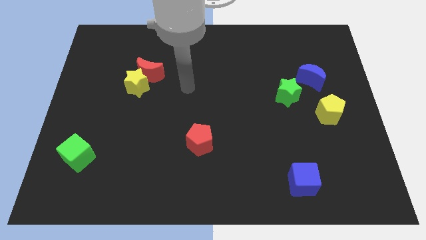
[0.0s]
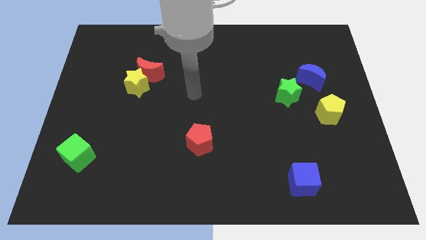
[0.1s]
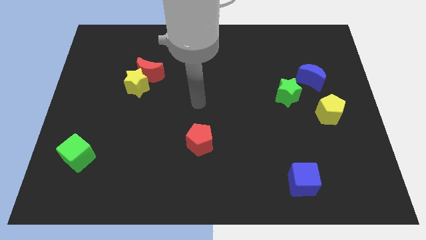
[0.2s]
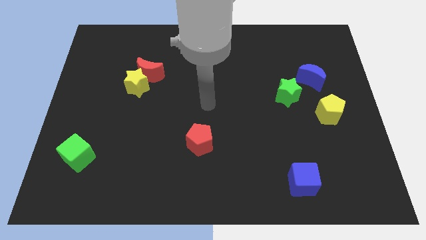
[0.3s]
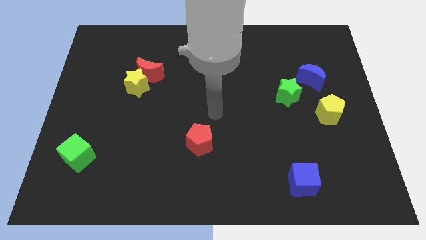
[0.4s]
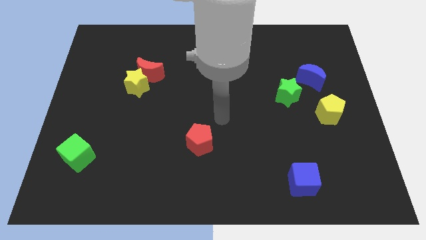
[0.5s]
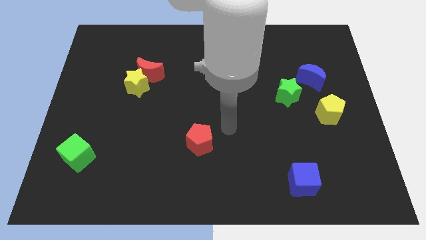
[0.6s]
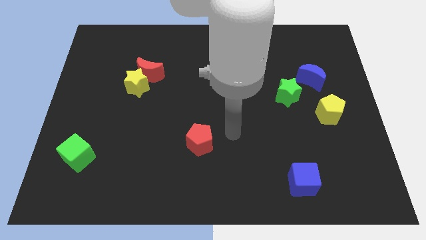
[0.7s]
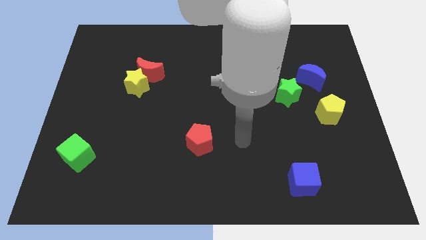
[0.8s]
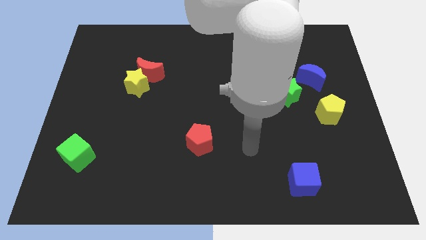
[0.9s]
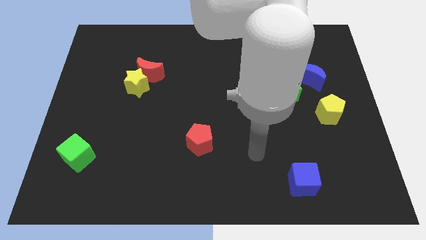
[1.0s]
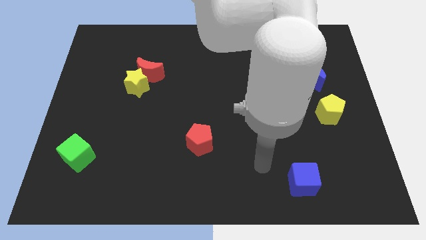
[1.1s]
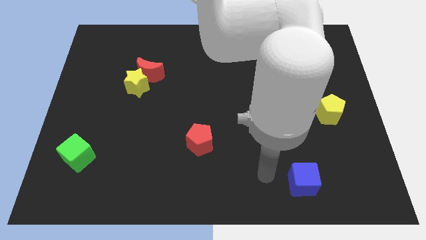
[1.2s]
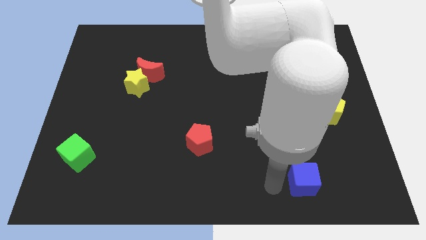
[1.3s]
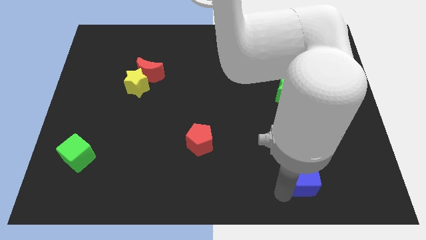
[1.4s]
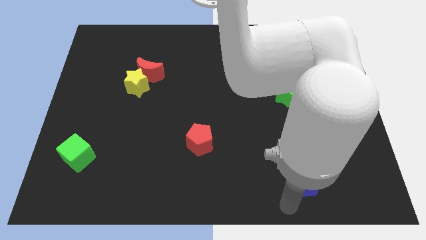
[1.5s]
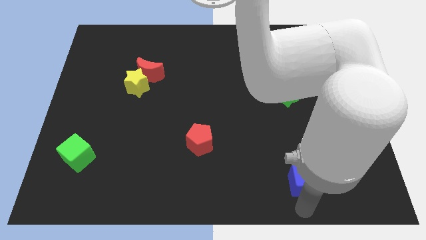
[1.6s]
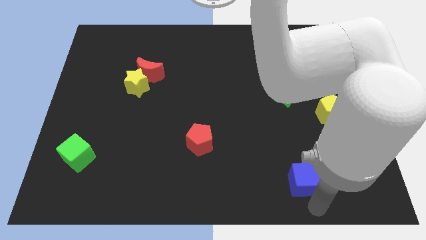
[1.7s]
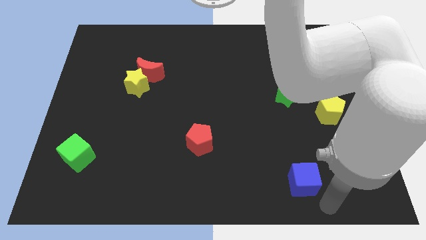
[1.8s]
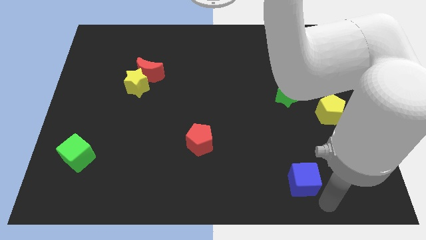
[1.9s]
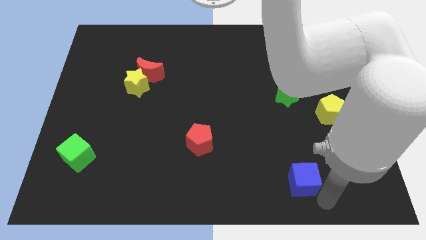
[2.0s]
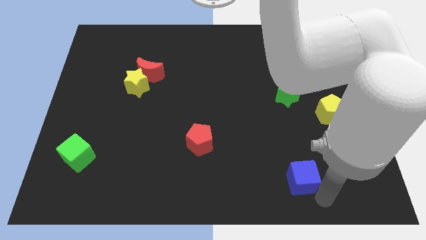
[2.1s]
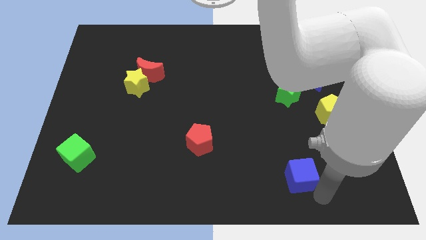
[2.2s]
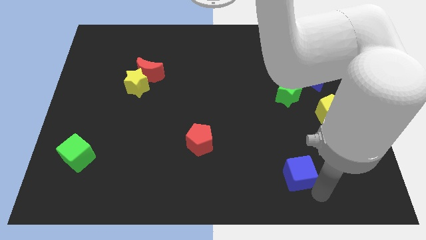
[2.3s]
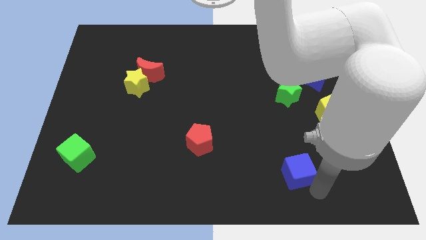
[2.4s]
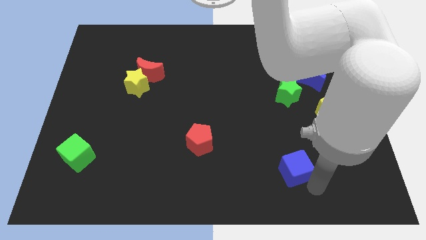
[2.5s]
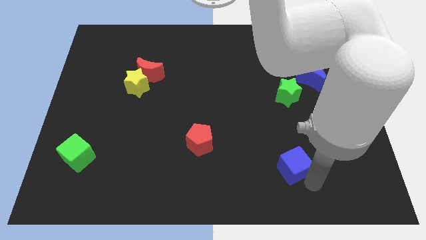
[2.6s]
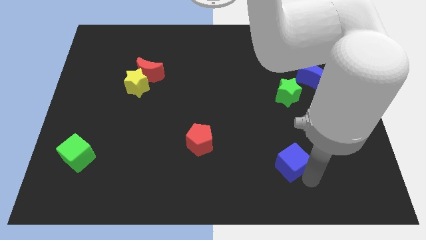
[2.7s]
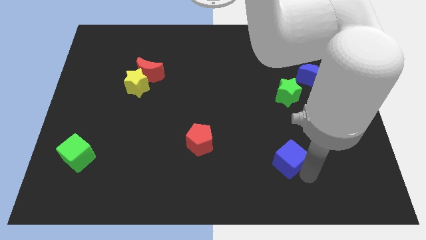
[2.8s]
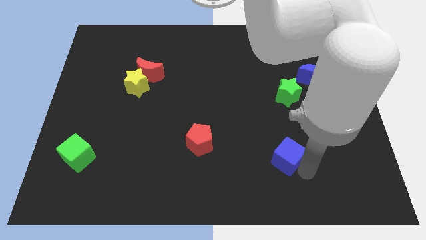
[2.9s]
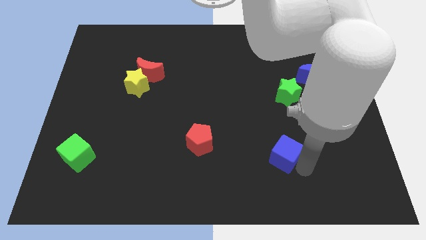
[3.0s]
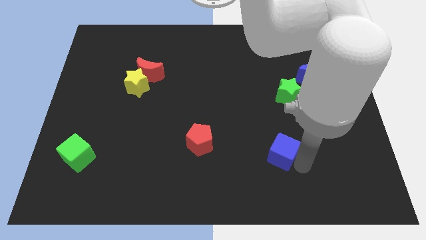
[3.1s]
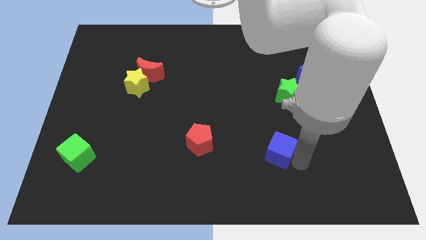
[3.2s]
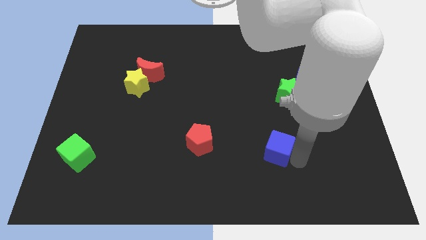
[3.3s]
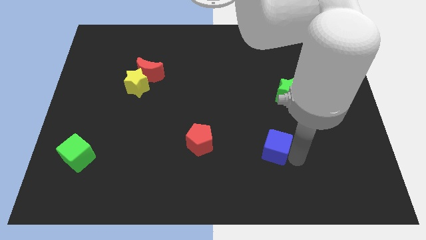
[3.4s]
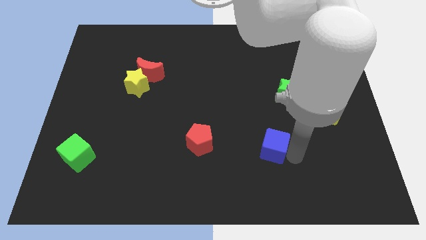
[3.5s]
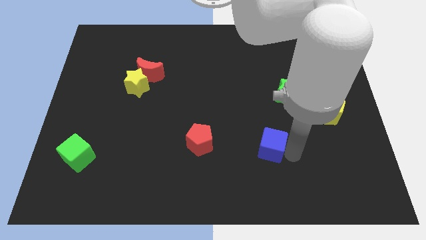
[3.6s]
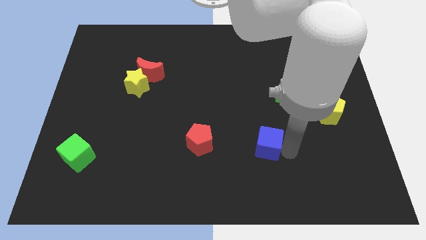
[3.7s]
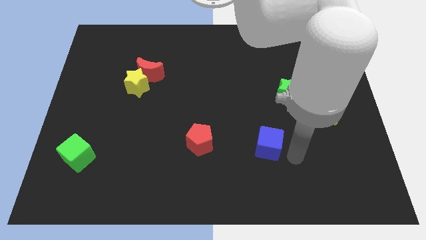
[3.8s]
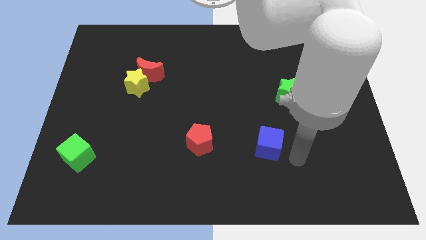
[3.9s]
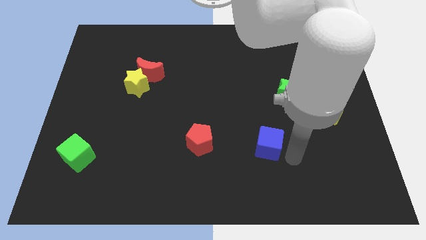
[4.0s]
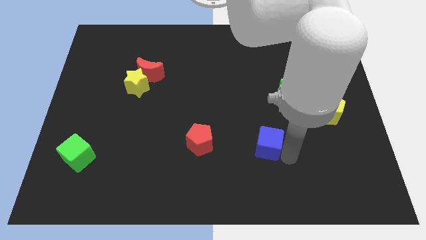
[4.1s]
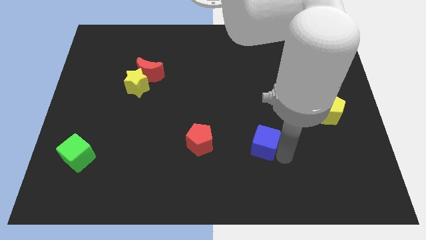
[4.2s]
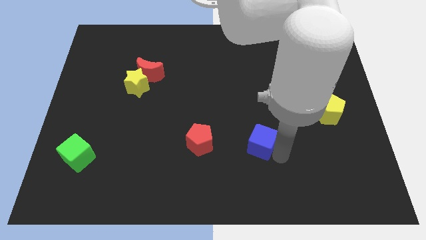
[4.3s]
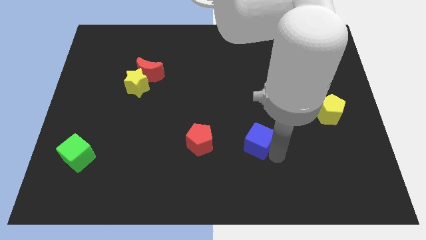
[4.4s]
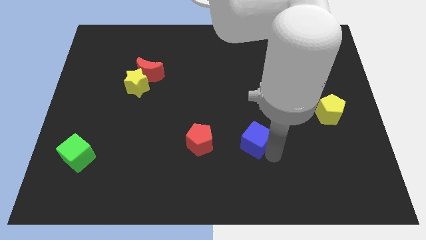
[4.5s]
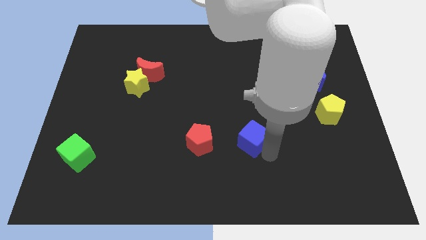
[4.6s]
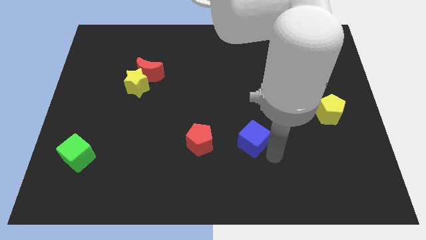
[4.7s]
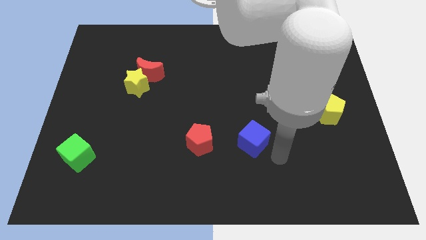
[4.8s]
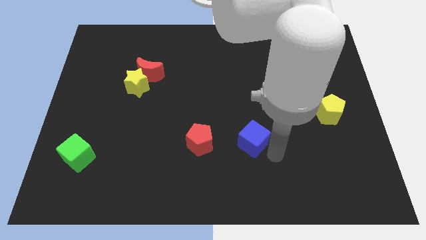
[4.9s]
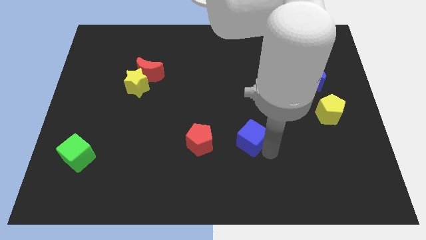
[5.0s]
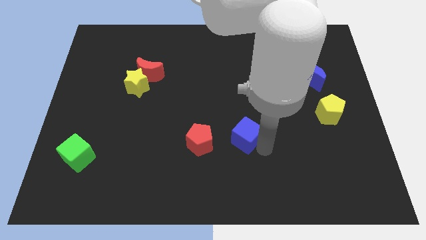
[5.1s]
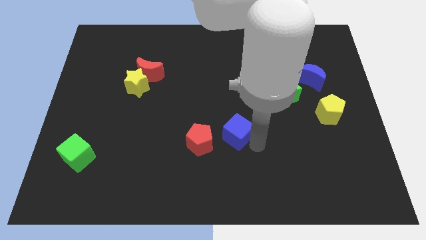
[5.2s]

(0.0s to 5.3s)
push the blue cube to the top right side of the red pentagon

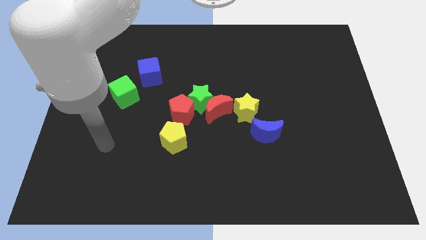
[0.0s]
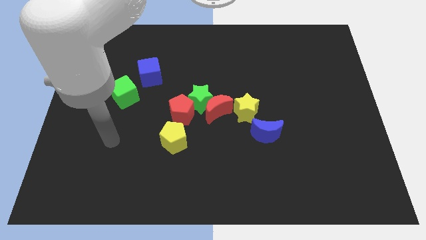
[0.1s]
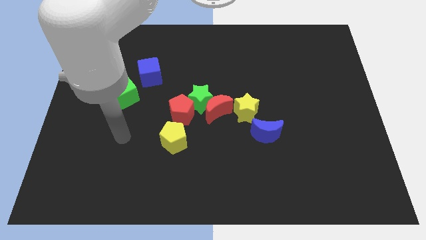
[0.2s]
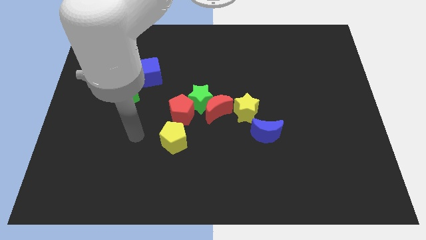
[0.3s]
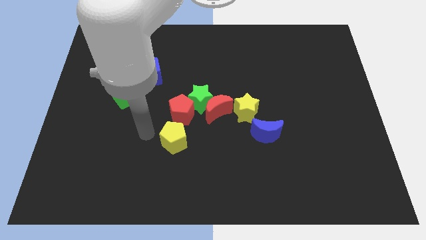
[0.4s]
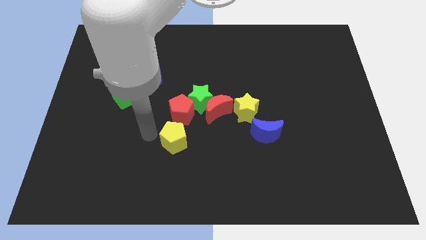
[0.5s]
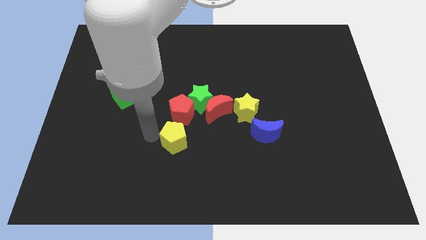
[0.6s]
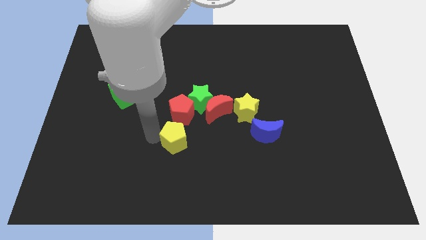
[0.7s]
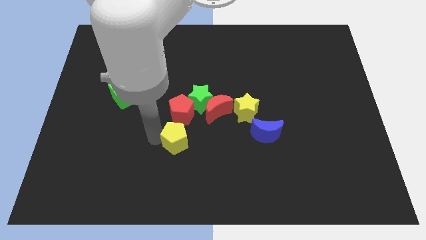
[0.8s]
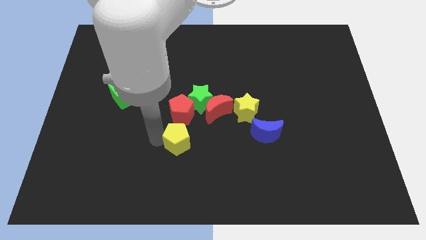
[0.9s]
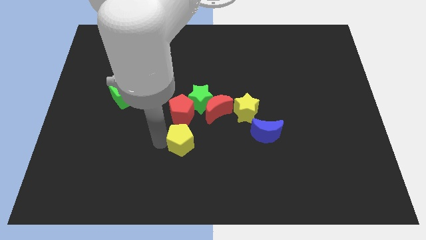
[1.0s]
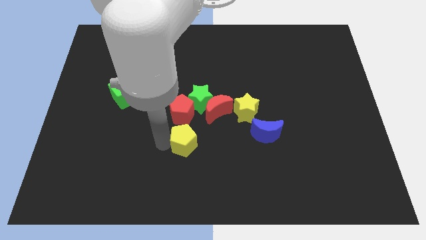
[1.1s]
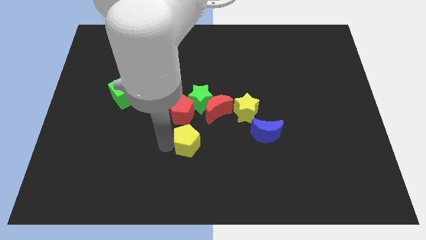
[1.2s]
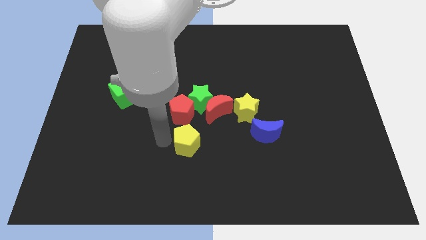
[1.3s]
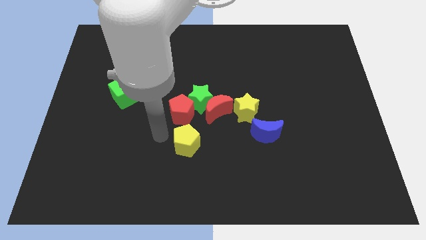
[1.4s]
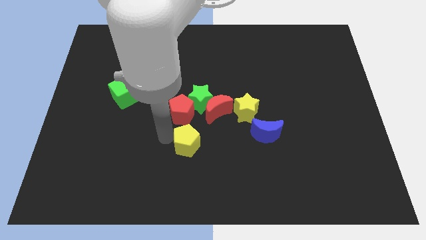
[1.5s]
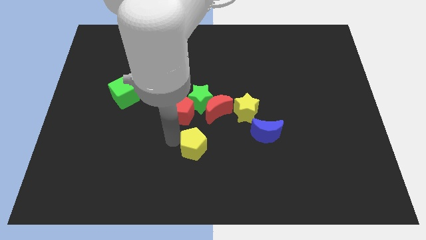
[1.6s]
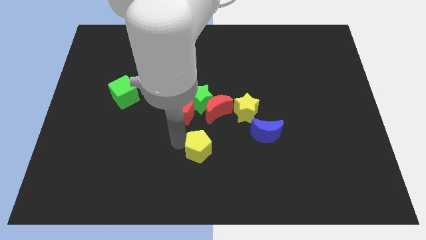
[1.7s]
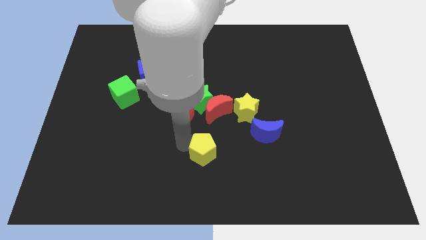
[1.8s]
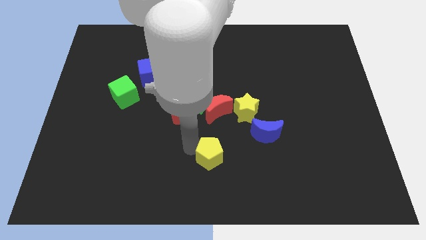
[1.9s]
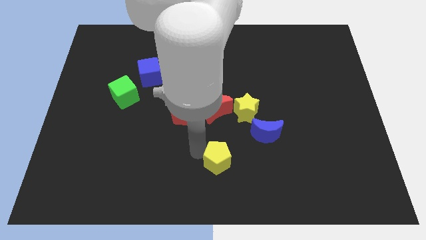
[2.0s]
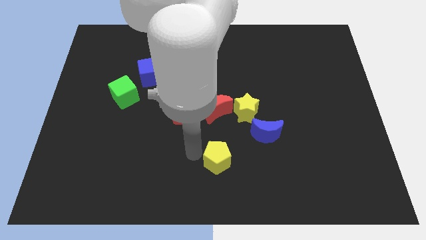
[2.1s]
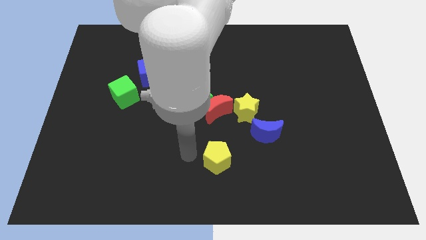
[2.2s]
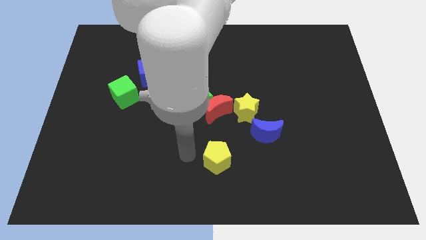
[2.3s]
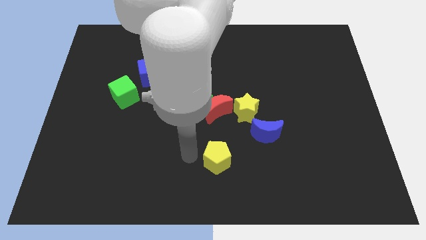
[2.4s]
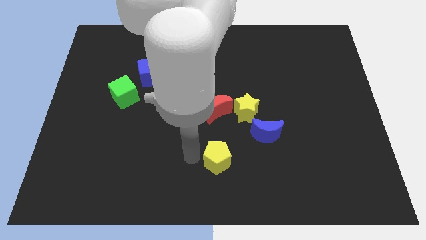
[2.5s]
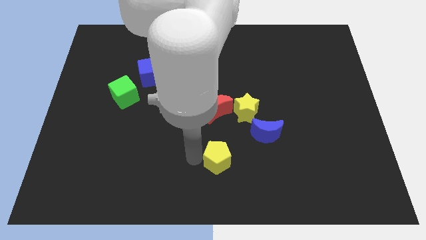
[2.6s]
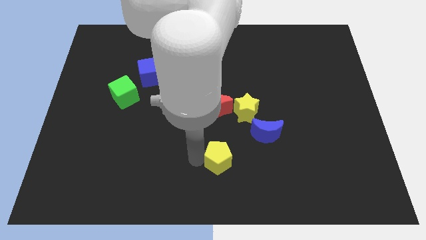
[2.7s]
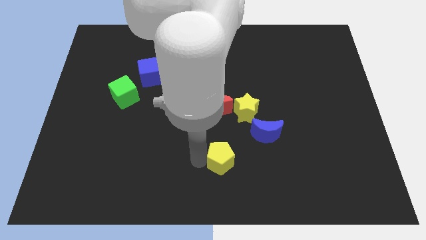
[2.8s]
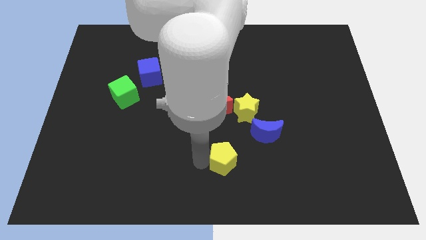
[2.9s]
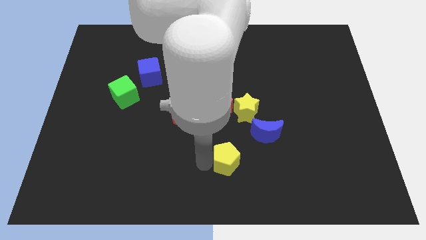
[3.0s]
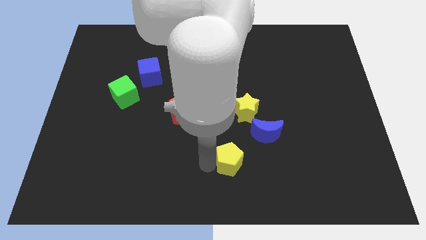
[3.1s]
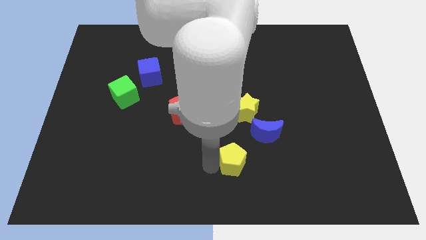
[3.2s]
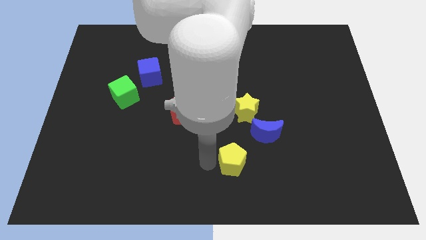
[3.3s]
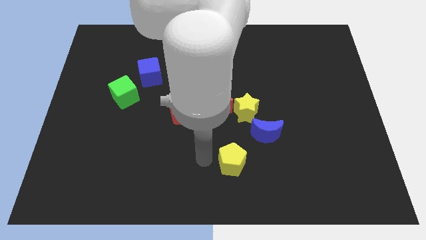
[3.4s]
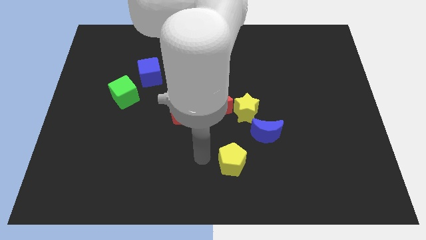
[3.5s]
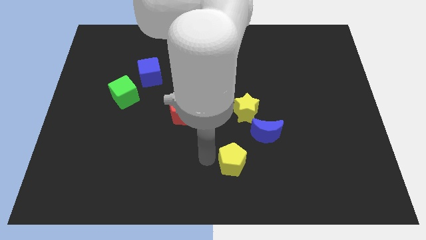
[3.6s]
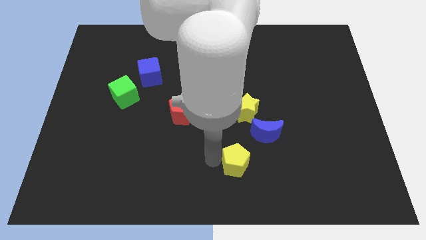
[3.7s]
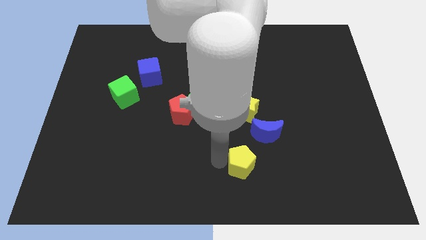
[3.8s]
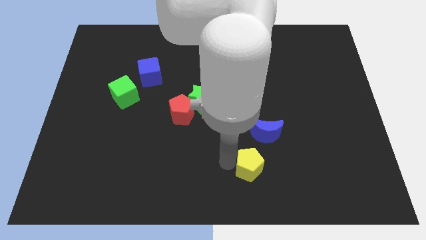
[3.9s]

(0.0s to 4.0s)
move the yellow pentagon below the blue moon
